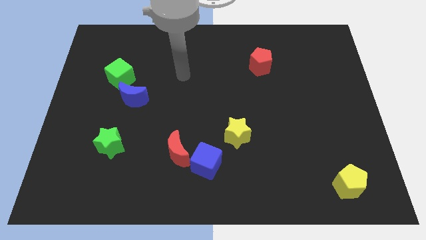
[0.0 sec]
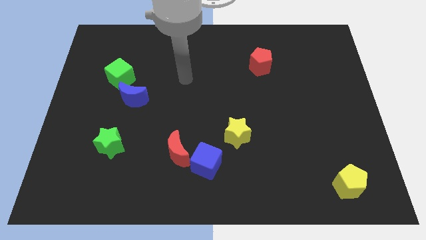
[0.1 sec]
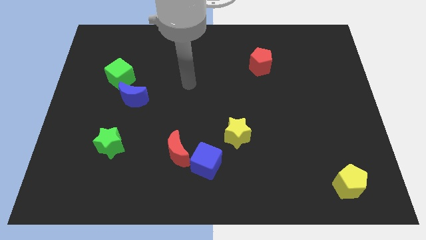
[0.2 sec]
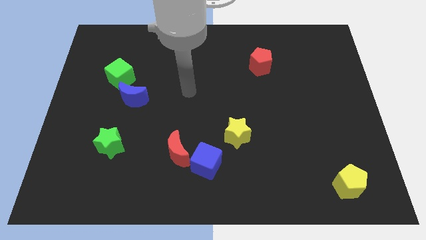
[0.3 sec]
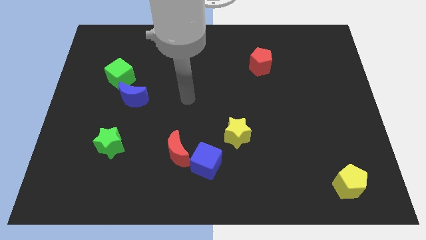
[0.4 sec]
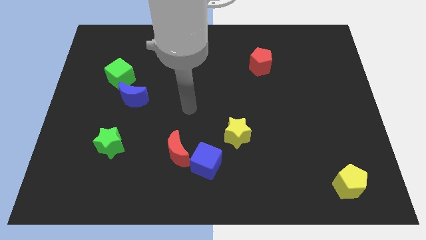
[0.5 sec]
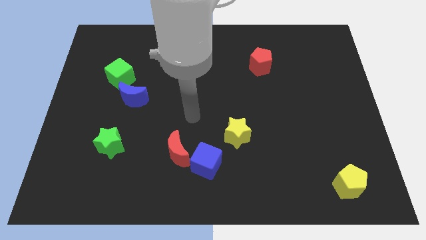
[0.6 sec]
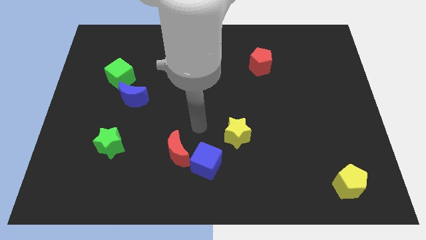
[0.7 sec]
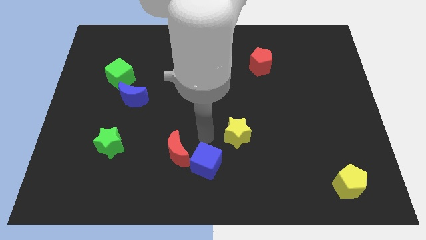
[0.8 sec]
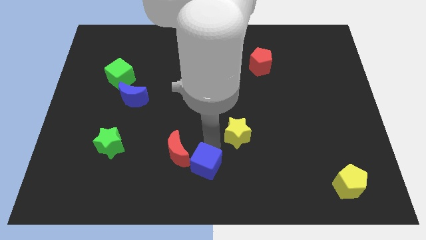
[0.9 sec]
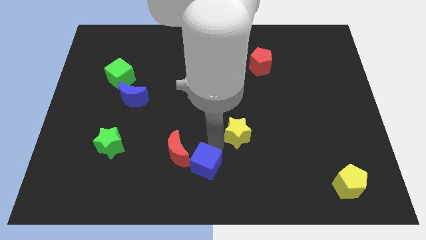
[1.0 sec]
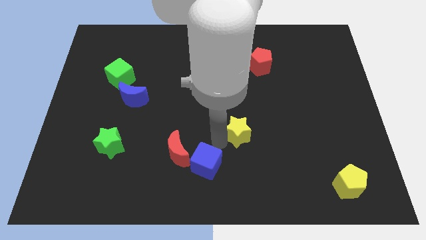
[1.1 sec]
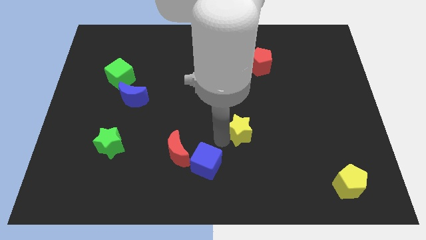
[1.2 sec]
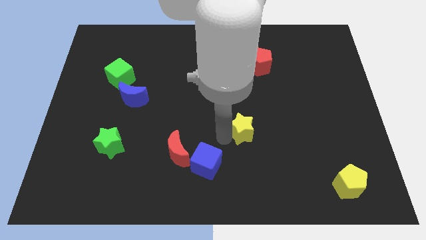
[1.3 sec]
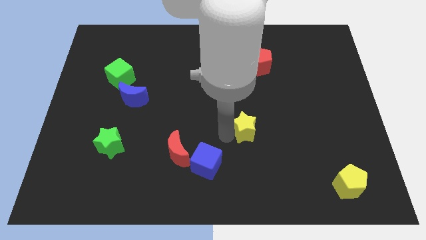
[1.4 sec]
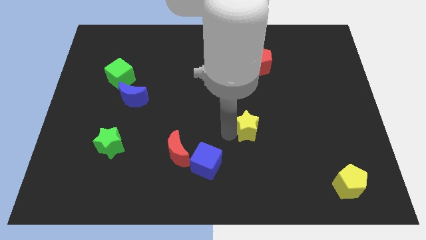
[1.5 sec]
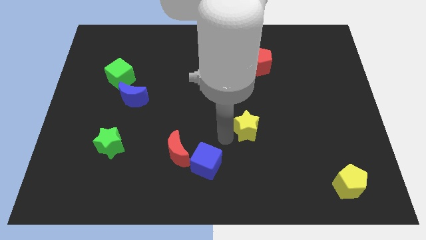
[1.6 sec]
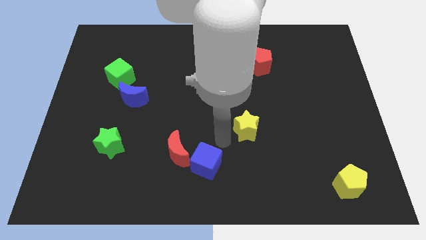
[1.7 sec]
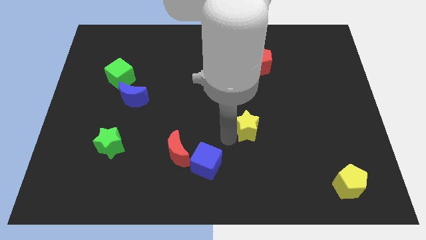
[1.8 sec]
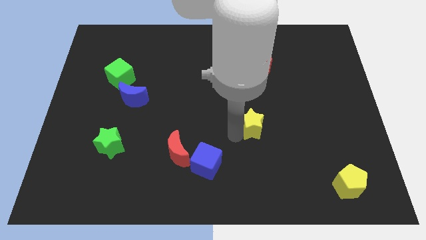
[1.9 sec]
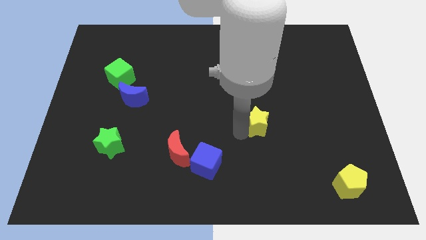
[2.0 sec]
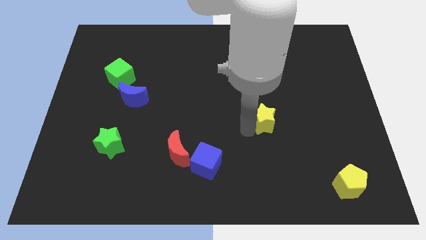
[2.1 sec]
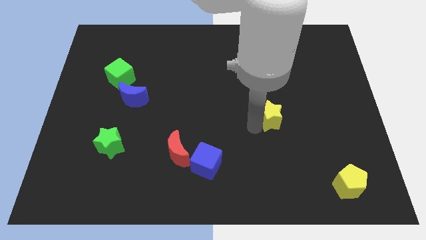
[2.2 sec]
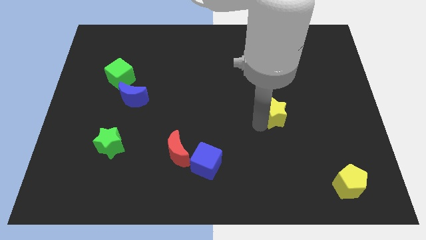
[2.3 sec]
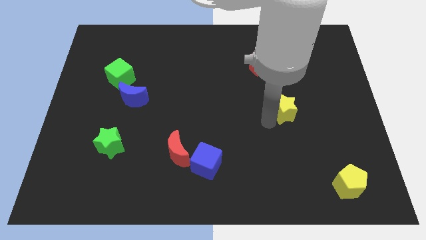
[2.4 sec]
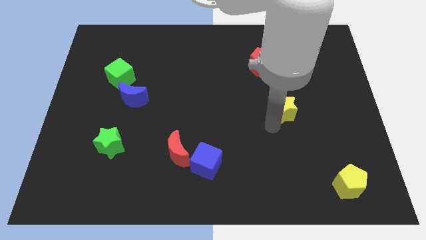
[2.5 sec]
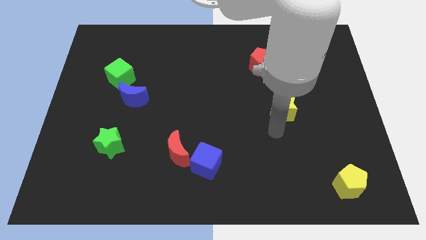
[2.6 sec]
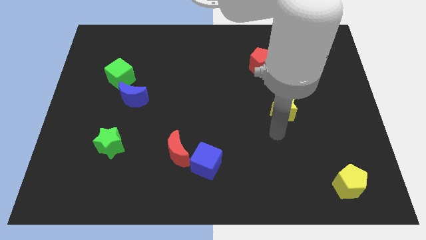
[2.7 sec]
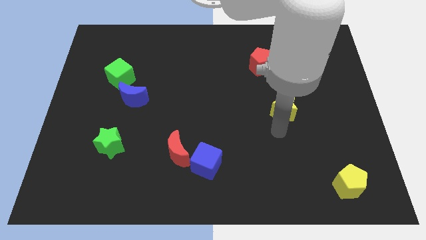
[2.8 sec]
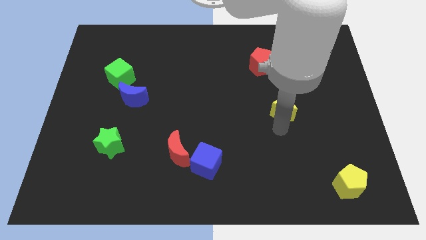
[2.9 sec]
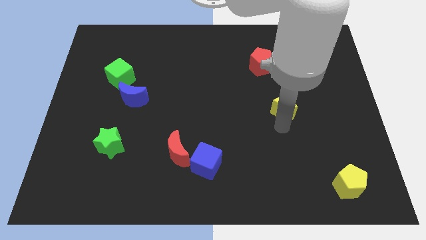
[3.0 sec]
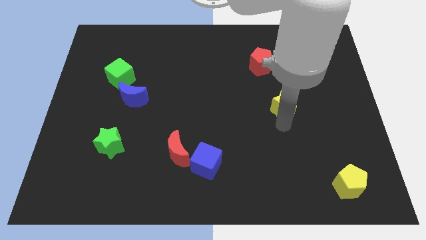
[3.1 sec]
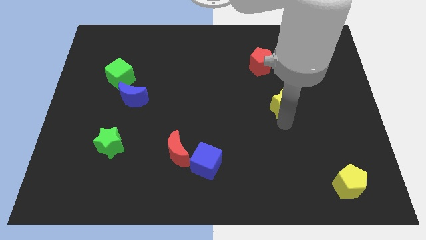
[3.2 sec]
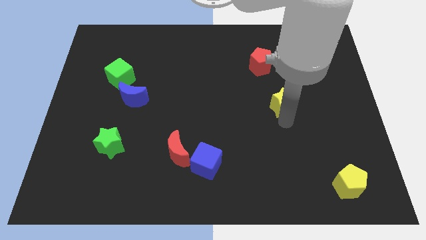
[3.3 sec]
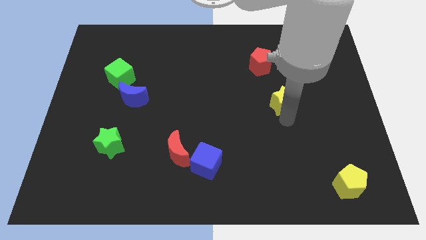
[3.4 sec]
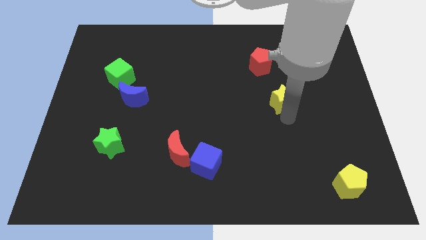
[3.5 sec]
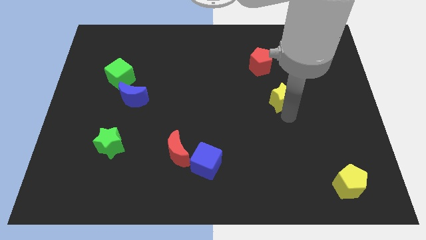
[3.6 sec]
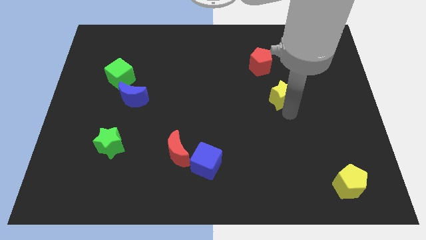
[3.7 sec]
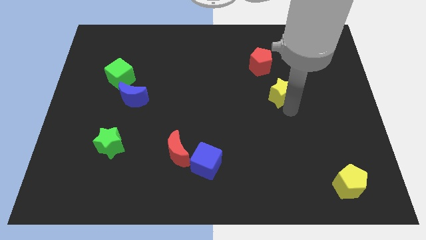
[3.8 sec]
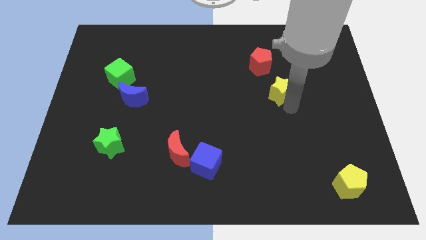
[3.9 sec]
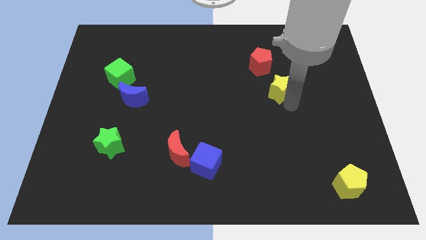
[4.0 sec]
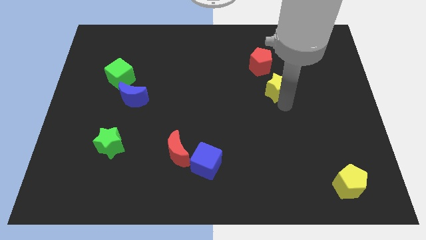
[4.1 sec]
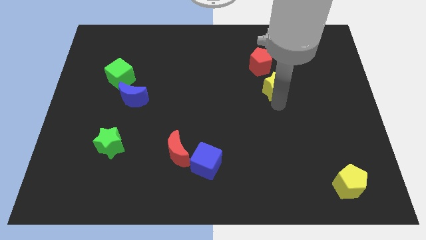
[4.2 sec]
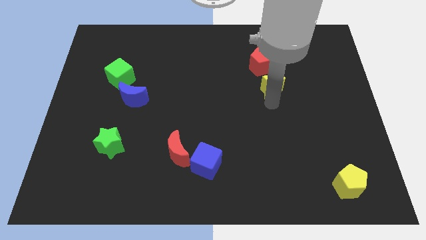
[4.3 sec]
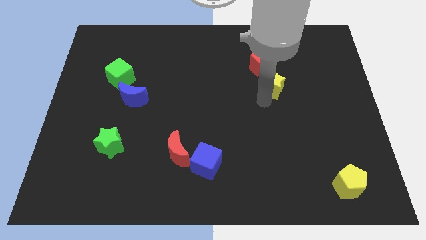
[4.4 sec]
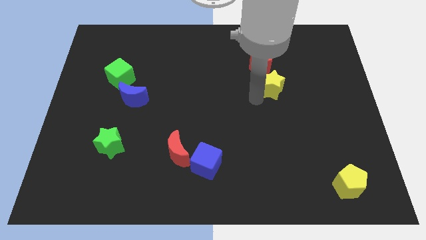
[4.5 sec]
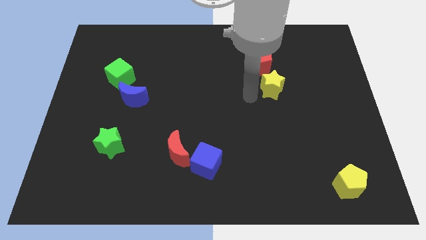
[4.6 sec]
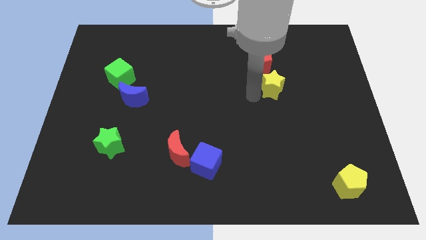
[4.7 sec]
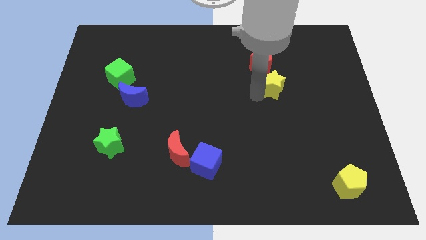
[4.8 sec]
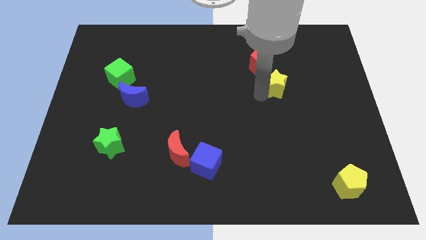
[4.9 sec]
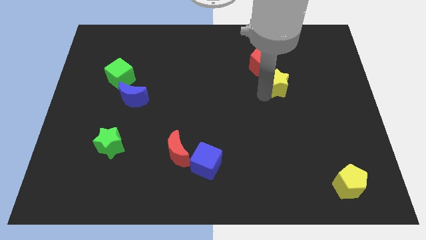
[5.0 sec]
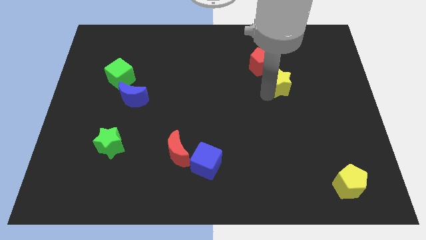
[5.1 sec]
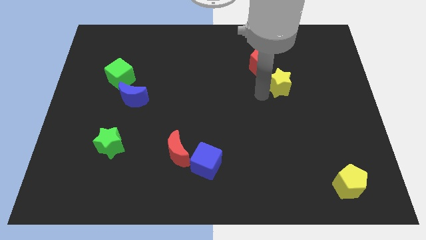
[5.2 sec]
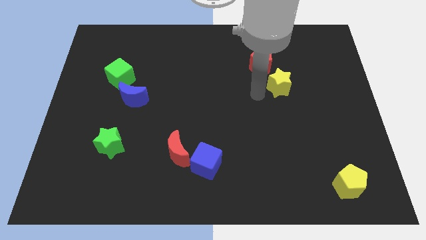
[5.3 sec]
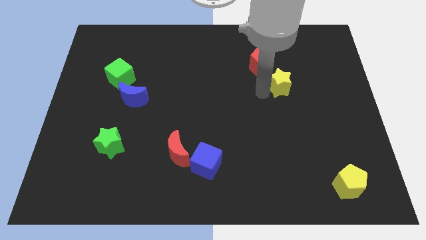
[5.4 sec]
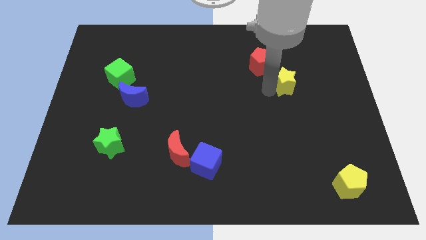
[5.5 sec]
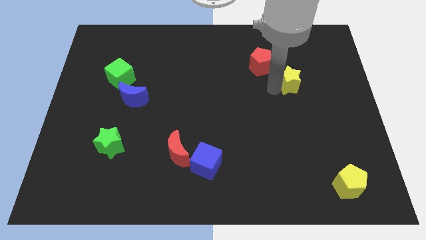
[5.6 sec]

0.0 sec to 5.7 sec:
move the yellow star up and then right

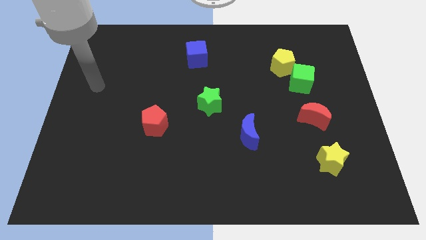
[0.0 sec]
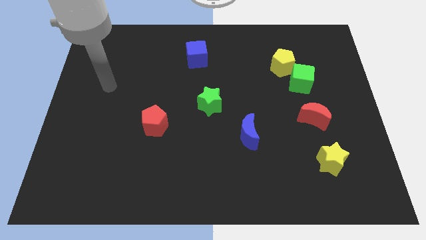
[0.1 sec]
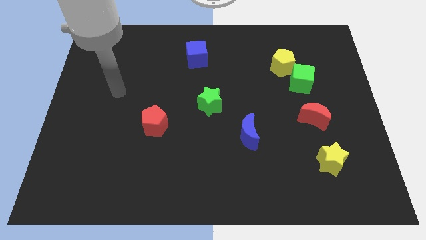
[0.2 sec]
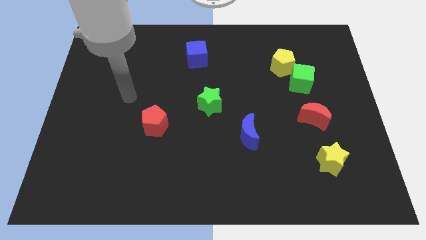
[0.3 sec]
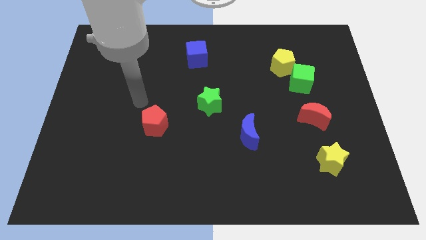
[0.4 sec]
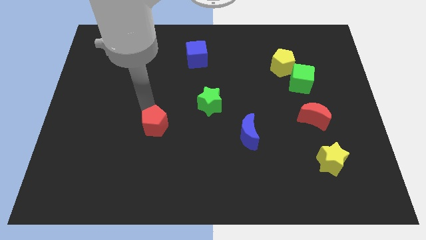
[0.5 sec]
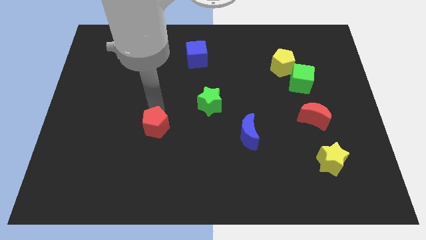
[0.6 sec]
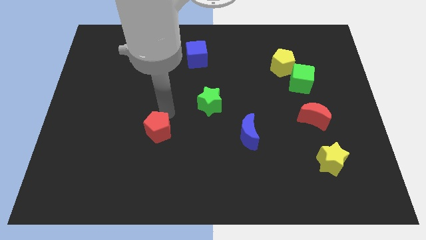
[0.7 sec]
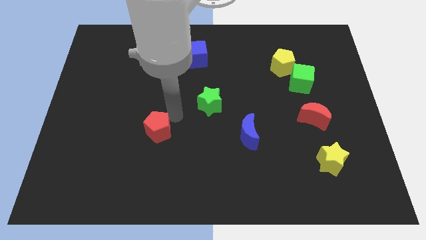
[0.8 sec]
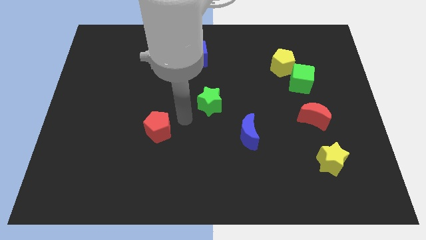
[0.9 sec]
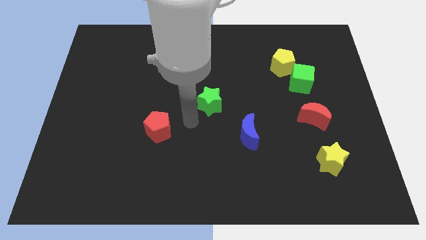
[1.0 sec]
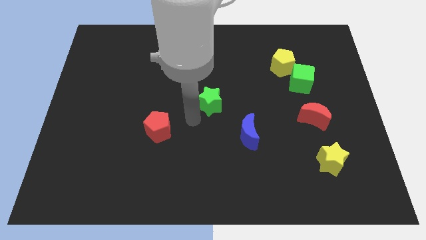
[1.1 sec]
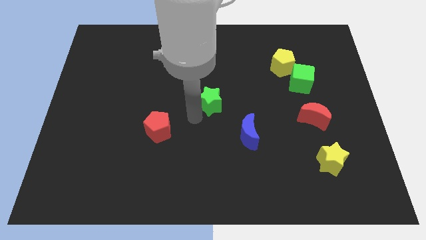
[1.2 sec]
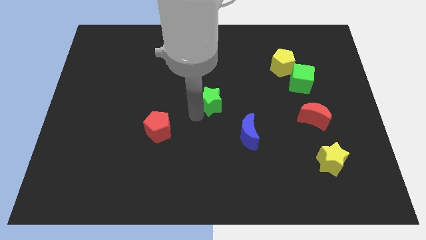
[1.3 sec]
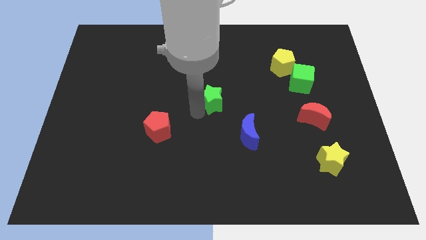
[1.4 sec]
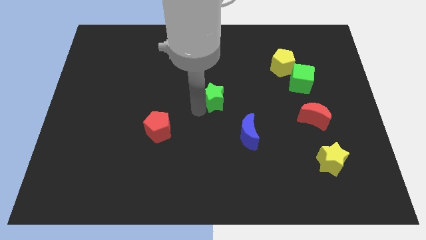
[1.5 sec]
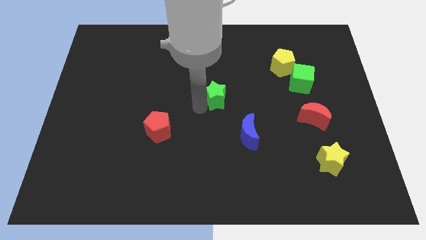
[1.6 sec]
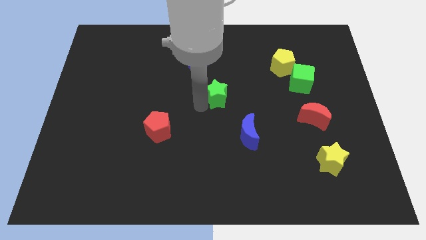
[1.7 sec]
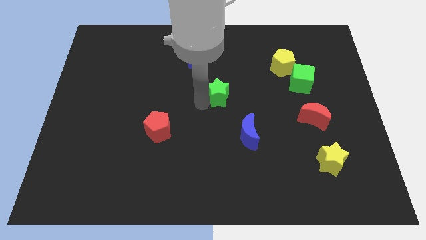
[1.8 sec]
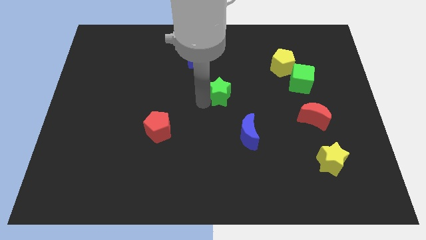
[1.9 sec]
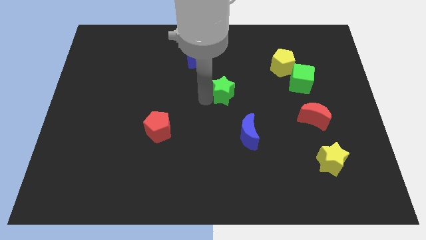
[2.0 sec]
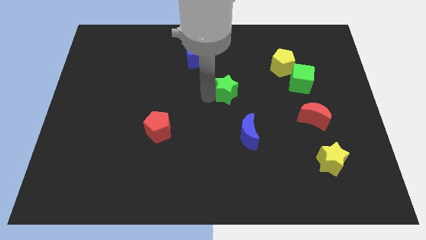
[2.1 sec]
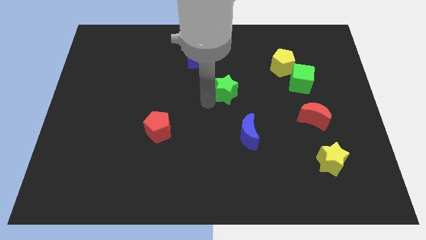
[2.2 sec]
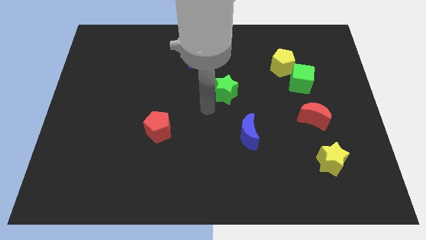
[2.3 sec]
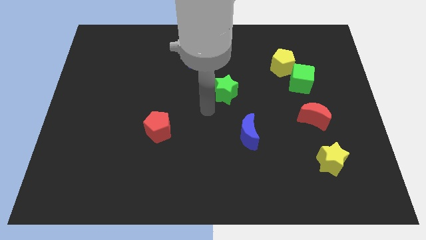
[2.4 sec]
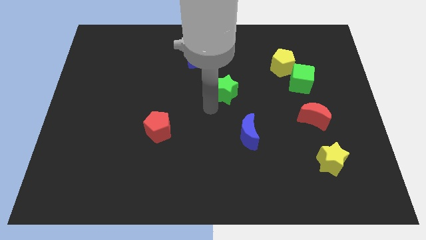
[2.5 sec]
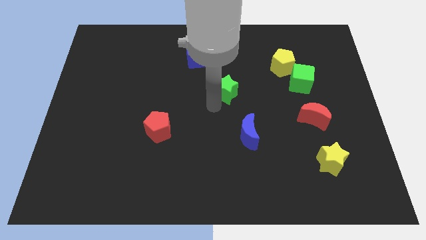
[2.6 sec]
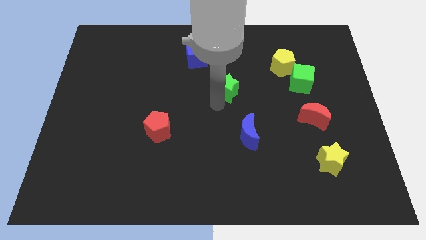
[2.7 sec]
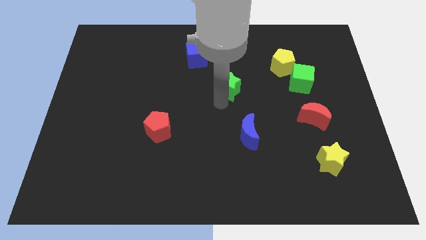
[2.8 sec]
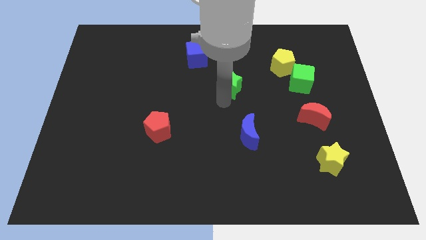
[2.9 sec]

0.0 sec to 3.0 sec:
push the green star slightly upwards and right
